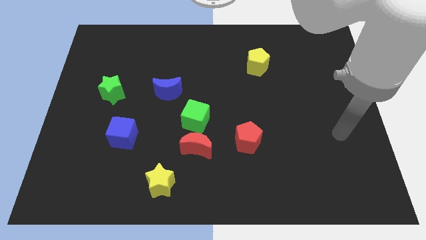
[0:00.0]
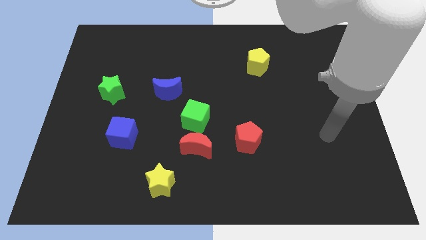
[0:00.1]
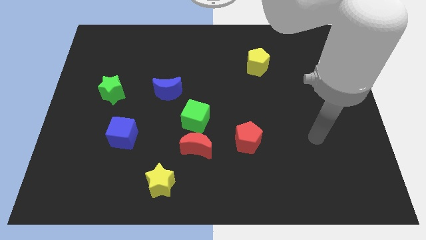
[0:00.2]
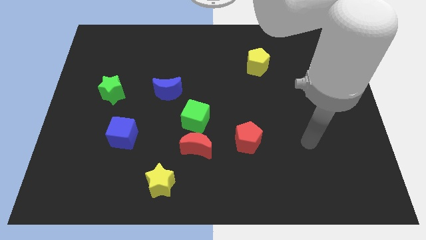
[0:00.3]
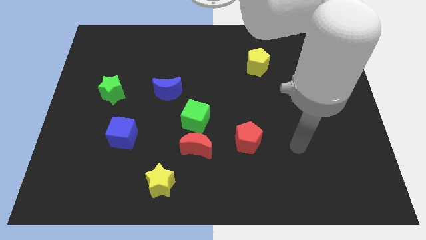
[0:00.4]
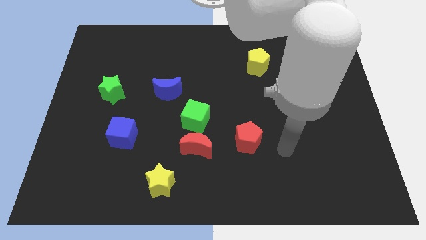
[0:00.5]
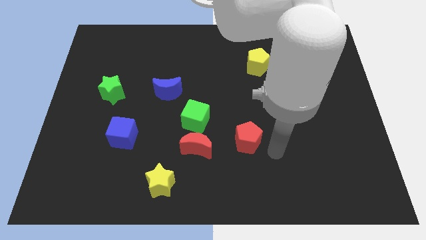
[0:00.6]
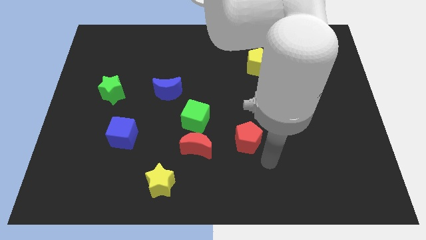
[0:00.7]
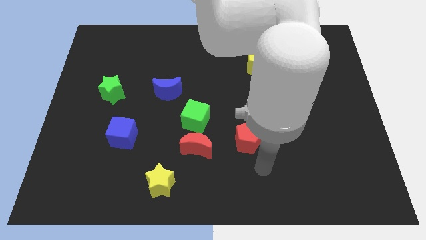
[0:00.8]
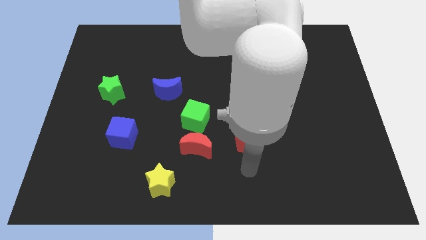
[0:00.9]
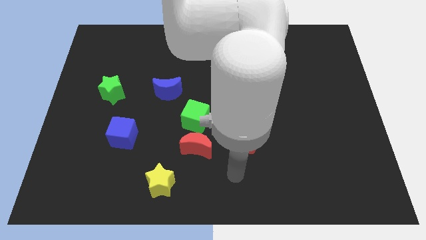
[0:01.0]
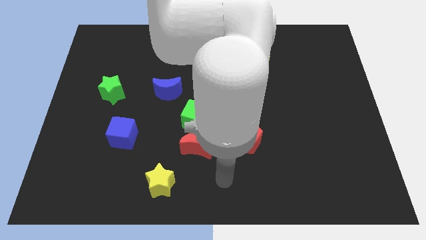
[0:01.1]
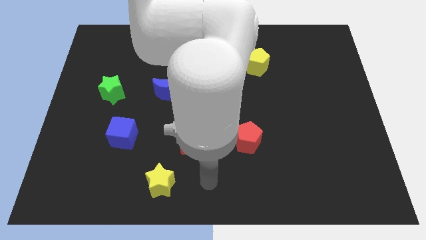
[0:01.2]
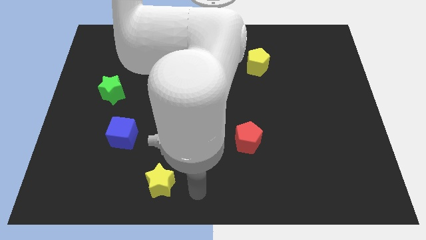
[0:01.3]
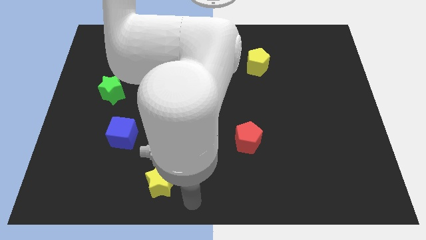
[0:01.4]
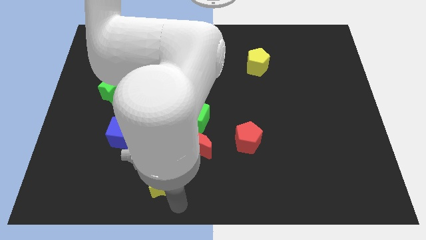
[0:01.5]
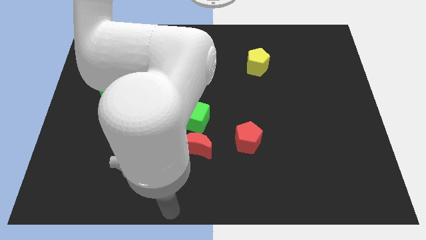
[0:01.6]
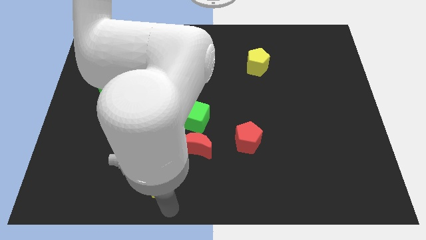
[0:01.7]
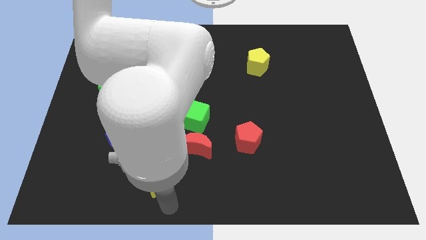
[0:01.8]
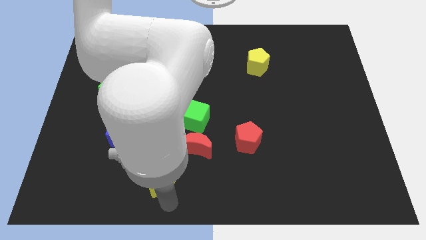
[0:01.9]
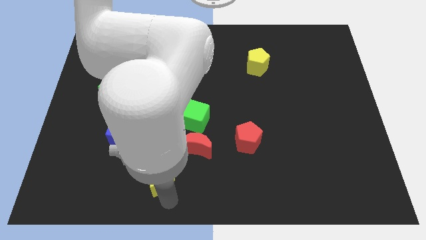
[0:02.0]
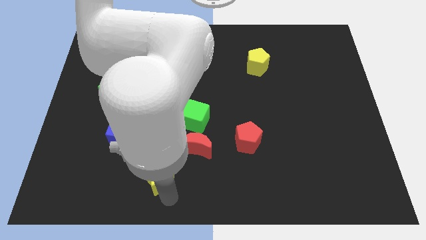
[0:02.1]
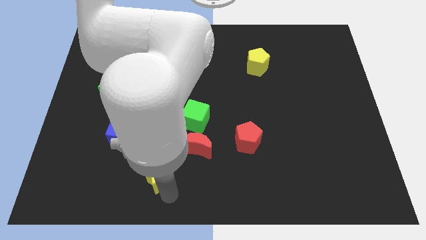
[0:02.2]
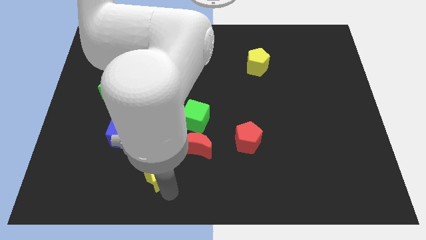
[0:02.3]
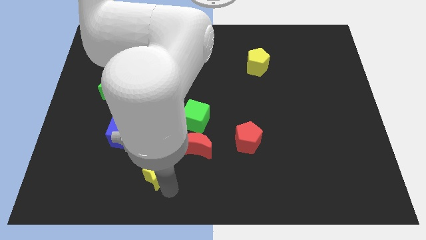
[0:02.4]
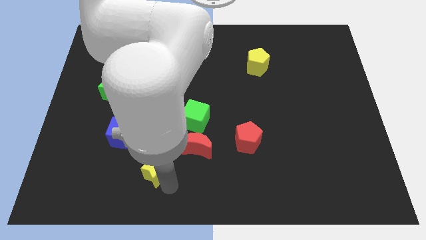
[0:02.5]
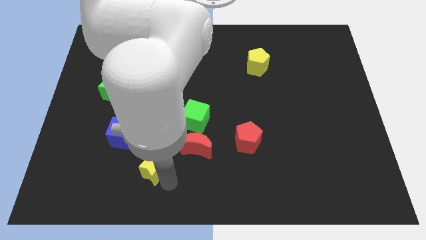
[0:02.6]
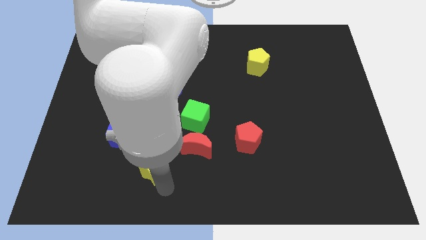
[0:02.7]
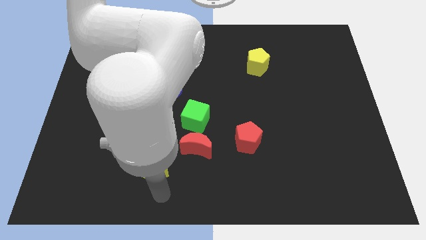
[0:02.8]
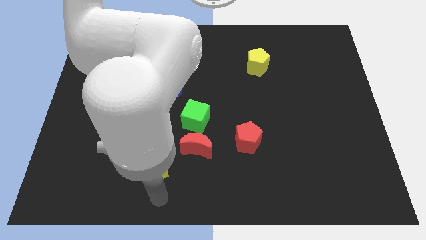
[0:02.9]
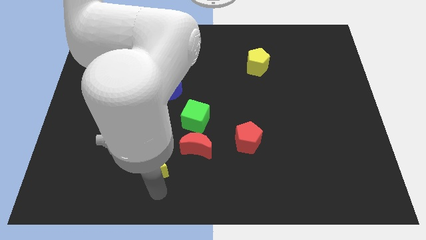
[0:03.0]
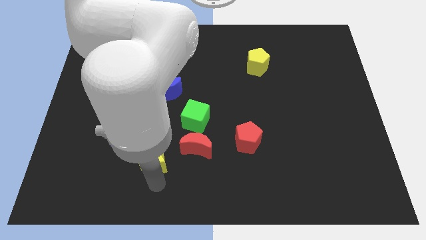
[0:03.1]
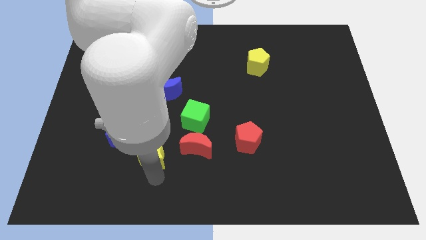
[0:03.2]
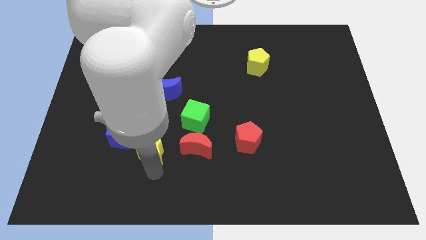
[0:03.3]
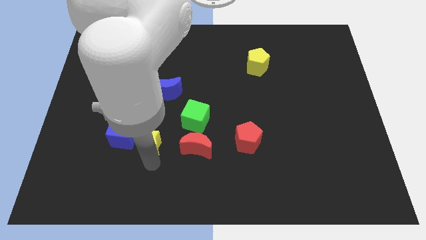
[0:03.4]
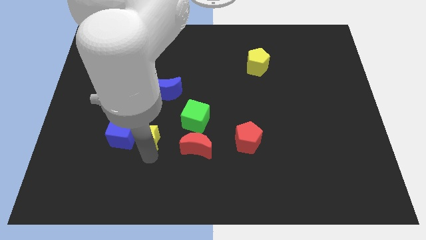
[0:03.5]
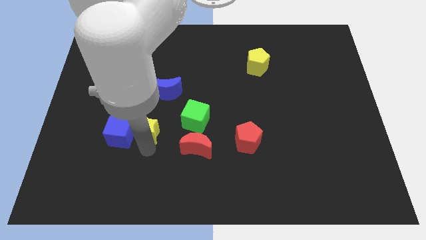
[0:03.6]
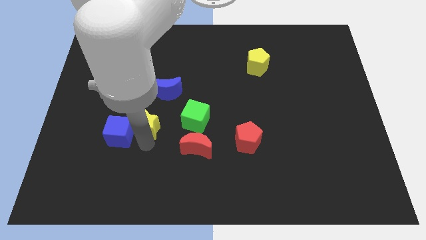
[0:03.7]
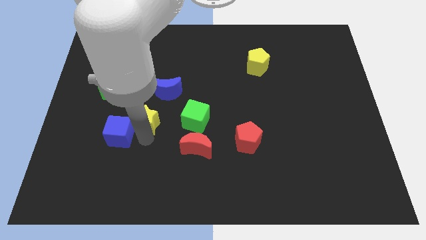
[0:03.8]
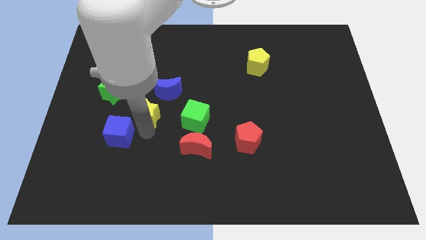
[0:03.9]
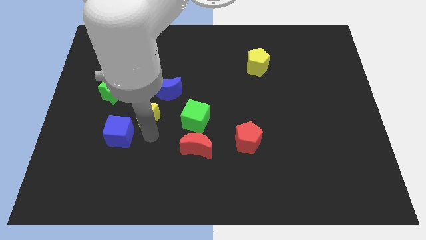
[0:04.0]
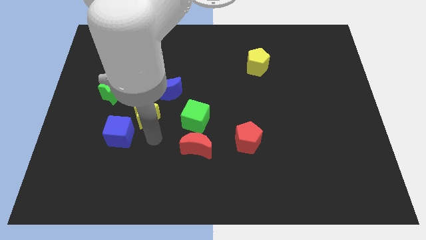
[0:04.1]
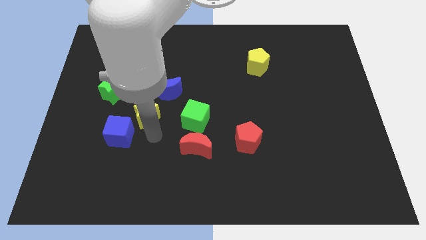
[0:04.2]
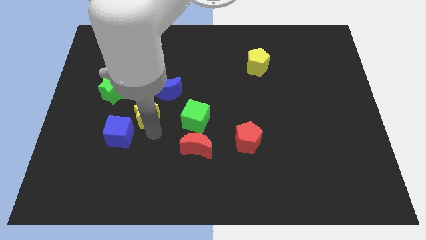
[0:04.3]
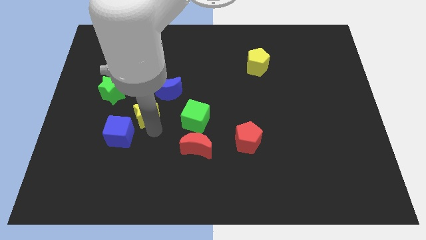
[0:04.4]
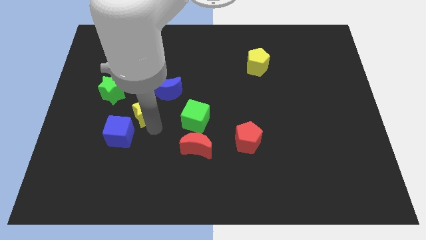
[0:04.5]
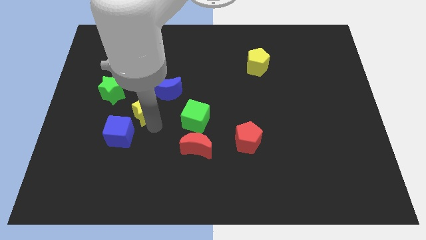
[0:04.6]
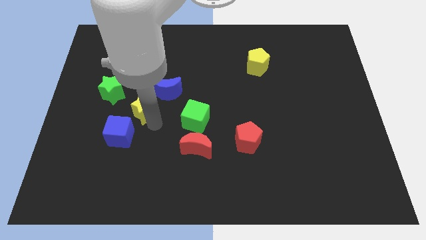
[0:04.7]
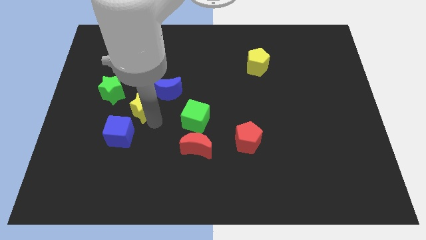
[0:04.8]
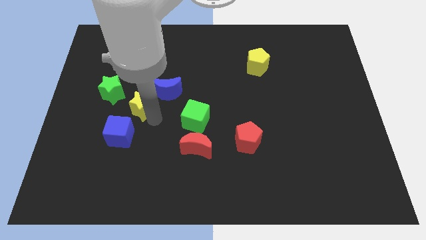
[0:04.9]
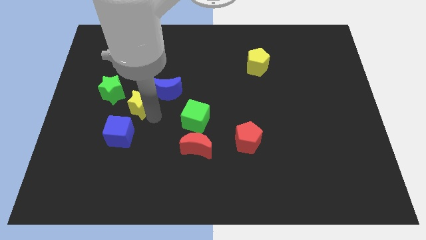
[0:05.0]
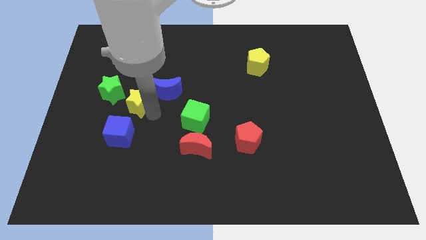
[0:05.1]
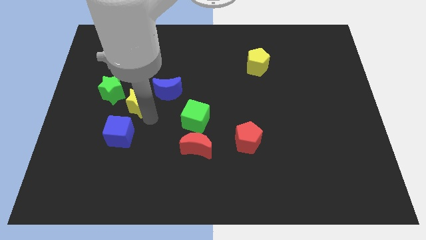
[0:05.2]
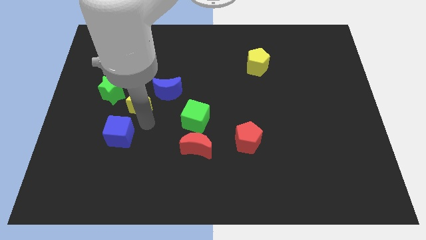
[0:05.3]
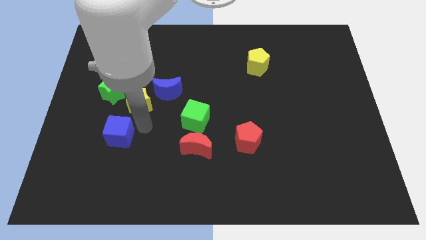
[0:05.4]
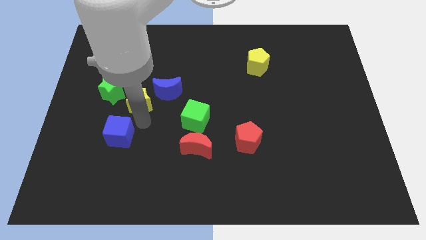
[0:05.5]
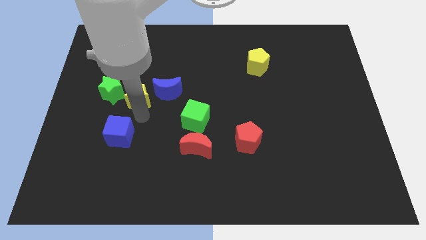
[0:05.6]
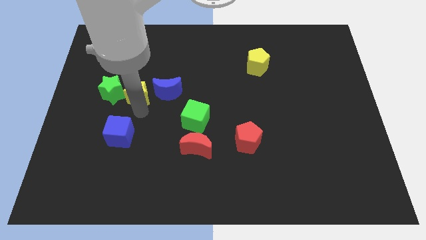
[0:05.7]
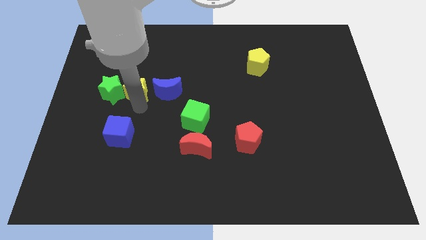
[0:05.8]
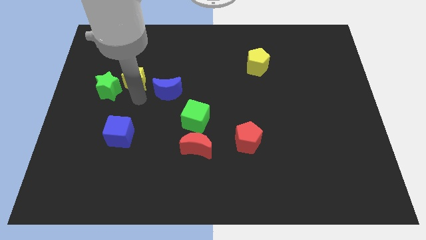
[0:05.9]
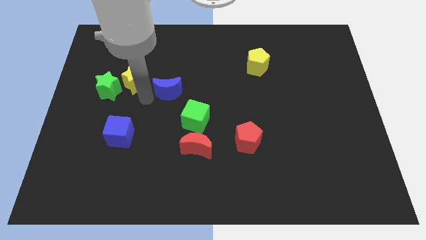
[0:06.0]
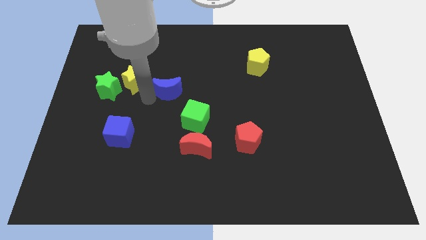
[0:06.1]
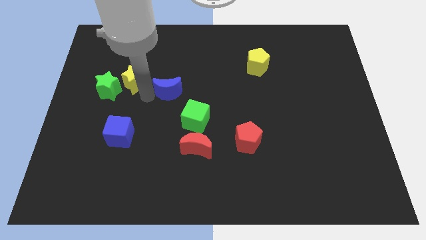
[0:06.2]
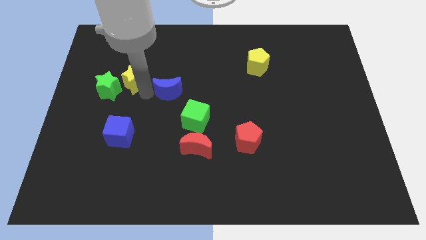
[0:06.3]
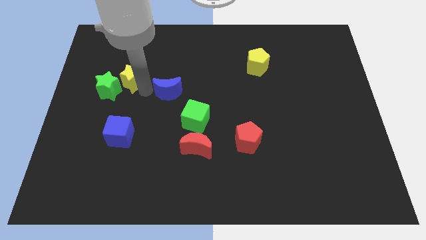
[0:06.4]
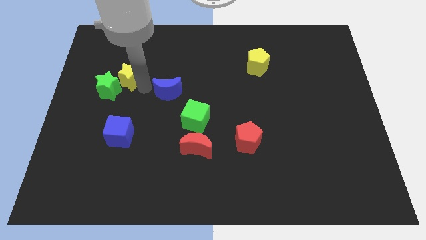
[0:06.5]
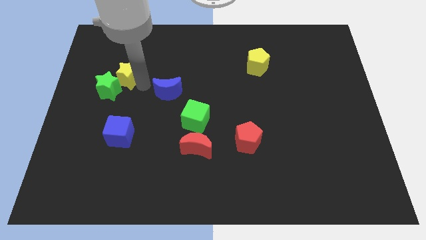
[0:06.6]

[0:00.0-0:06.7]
push the yellow star above the green star
